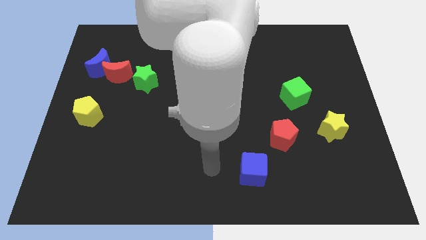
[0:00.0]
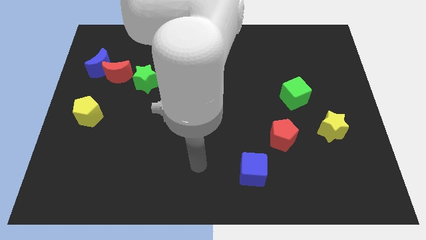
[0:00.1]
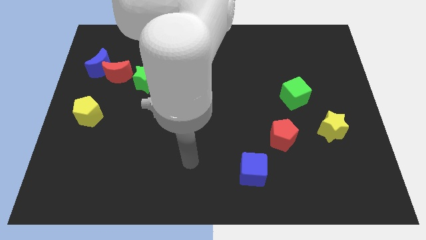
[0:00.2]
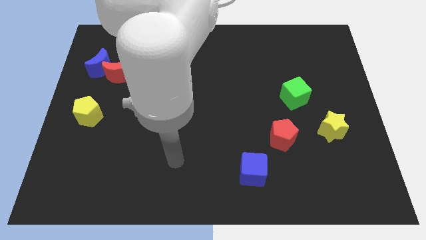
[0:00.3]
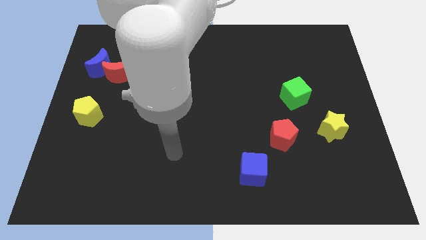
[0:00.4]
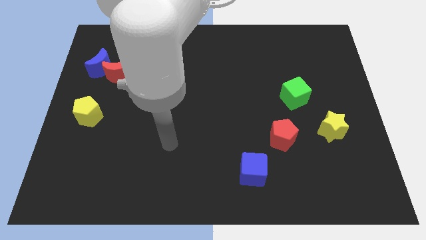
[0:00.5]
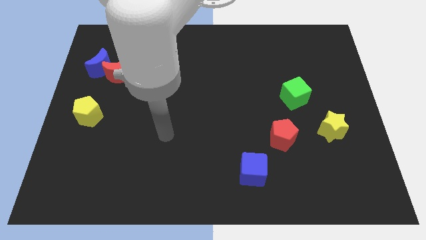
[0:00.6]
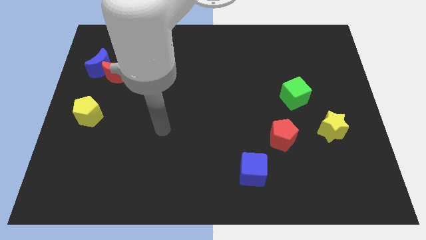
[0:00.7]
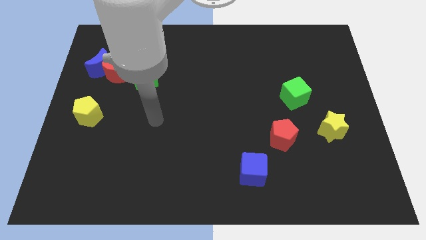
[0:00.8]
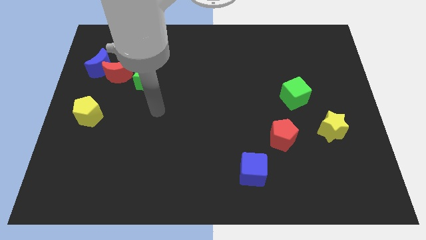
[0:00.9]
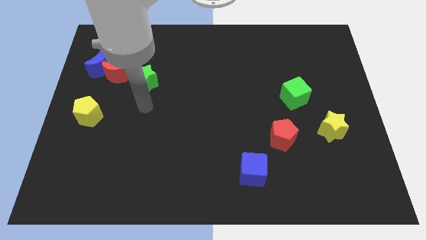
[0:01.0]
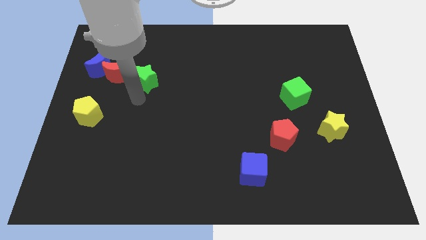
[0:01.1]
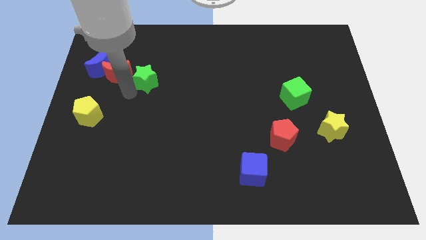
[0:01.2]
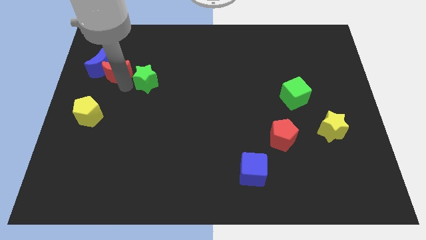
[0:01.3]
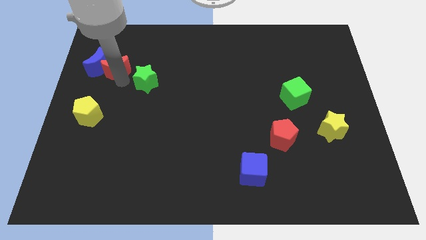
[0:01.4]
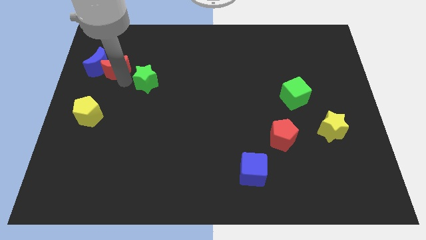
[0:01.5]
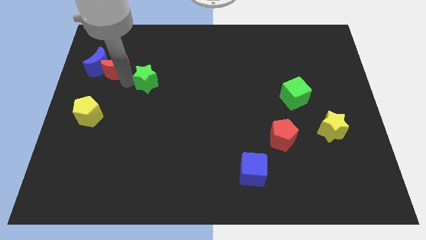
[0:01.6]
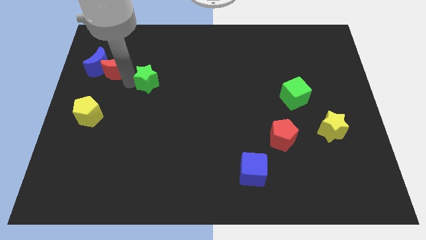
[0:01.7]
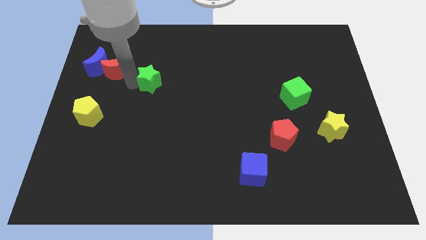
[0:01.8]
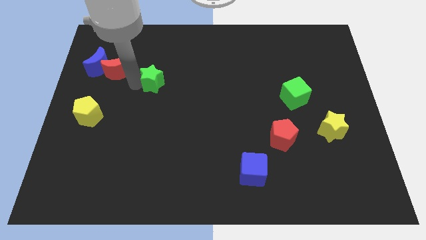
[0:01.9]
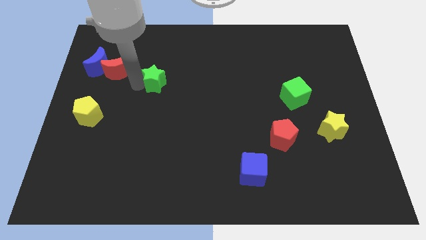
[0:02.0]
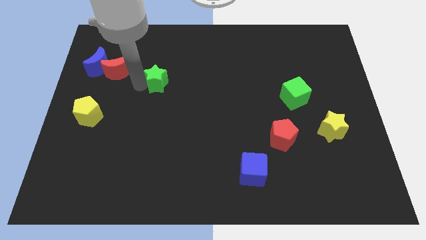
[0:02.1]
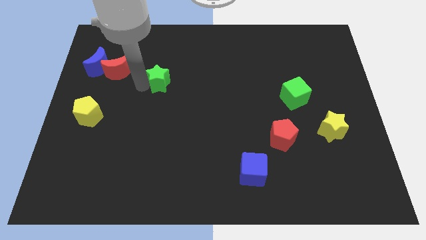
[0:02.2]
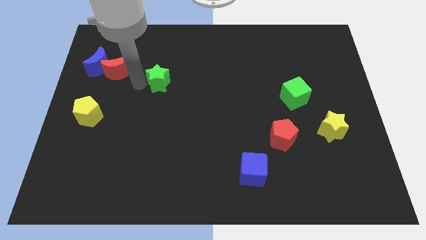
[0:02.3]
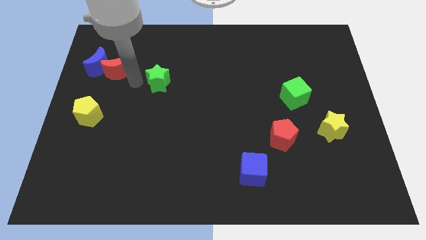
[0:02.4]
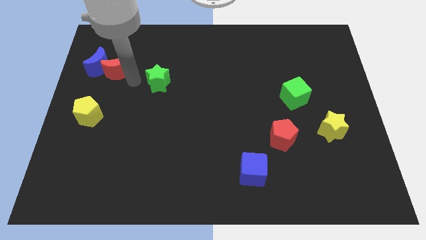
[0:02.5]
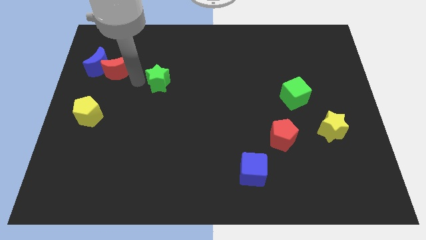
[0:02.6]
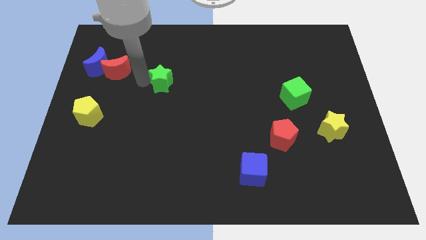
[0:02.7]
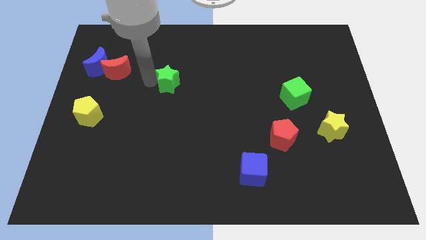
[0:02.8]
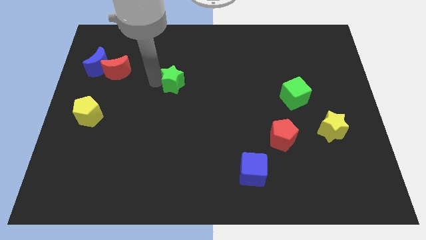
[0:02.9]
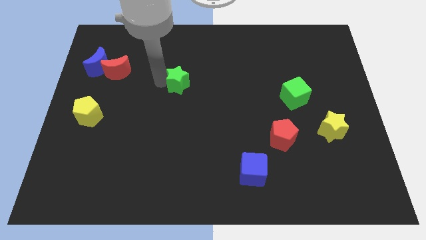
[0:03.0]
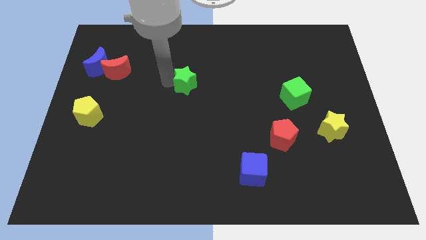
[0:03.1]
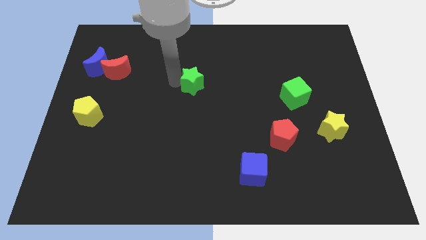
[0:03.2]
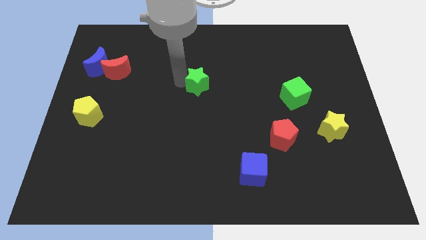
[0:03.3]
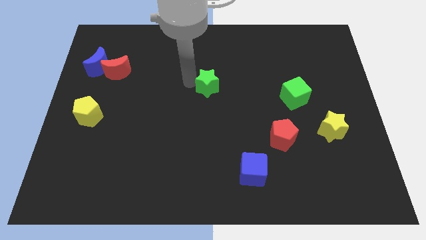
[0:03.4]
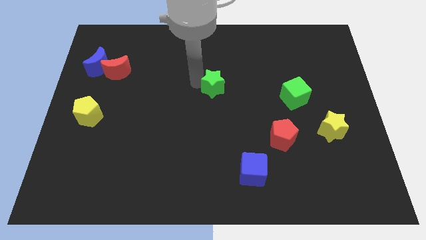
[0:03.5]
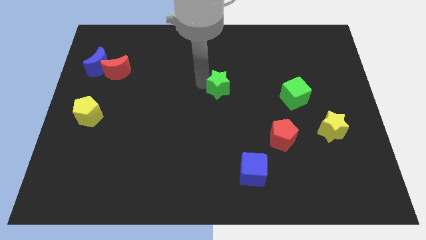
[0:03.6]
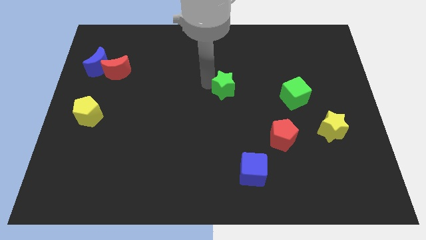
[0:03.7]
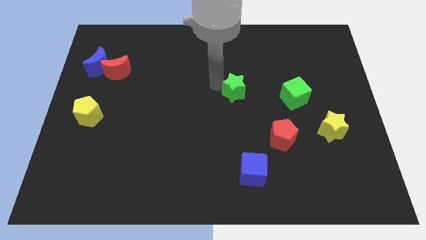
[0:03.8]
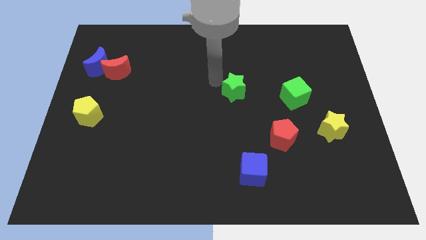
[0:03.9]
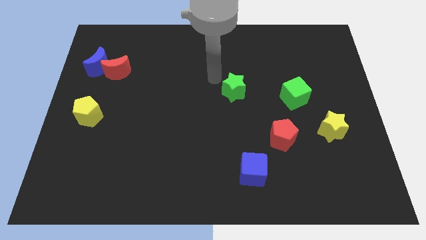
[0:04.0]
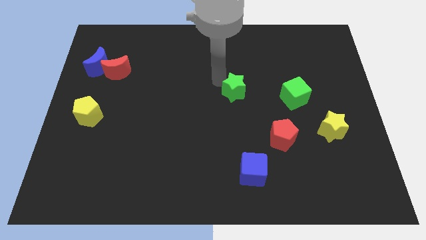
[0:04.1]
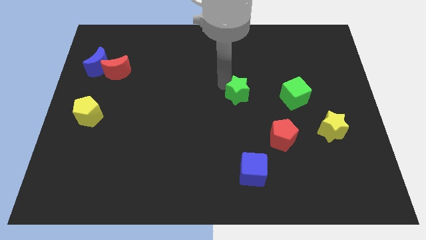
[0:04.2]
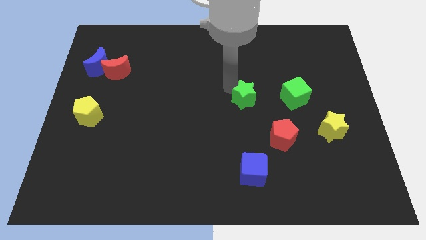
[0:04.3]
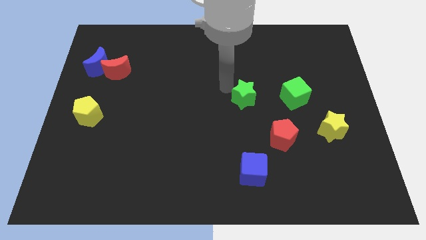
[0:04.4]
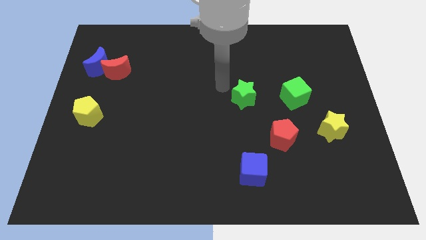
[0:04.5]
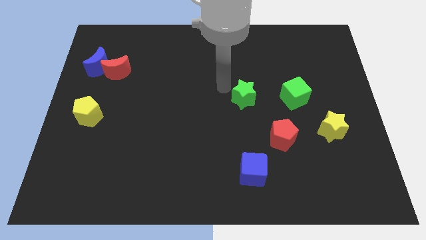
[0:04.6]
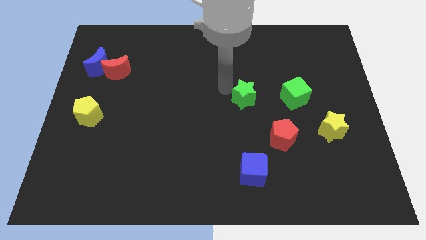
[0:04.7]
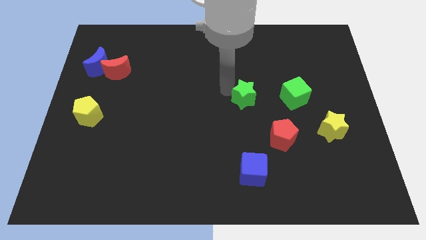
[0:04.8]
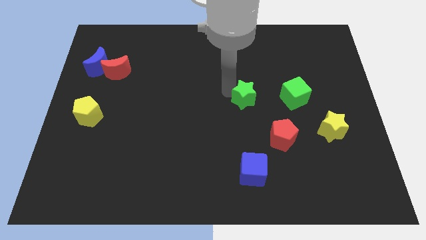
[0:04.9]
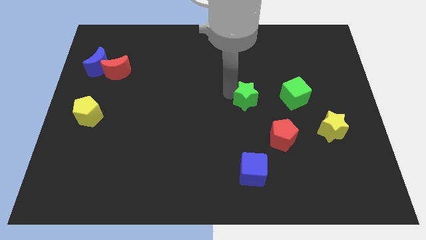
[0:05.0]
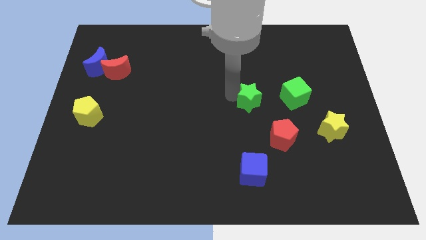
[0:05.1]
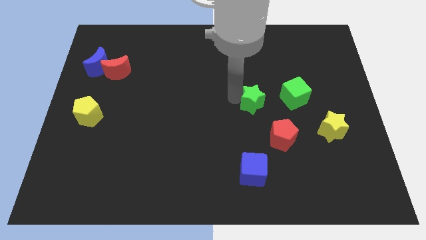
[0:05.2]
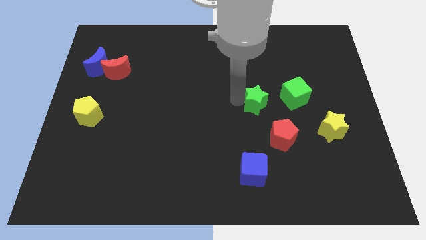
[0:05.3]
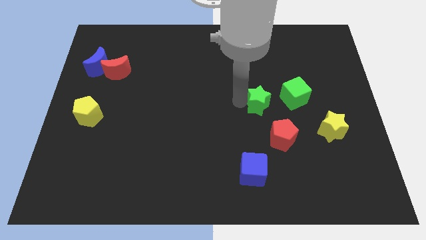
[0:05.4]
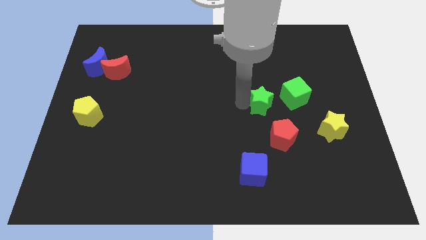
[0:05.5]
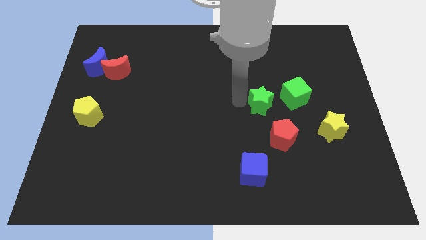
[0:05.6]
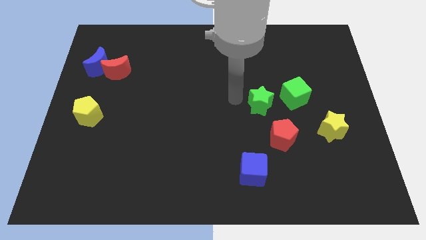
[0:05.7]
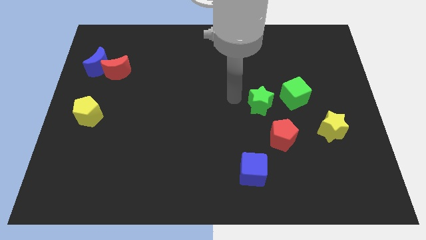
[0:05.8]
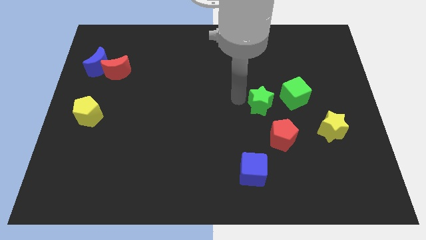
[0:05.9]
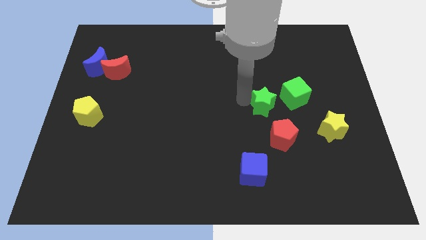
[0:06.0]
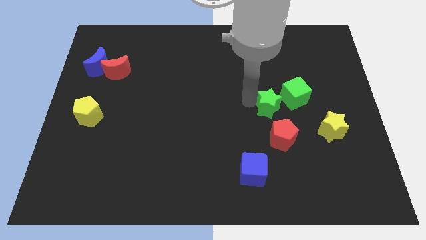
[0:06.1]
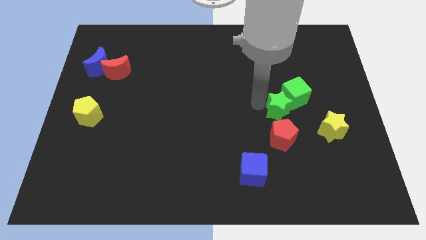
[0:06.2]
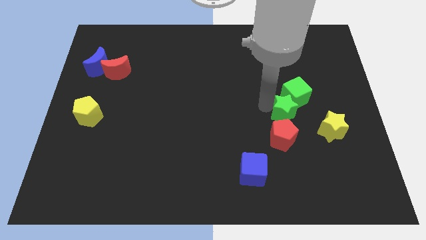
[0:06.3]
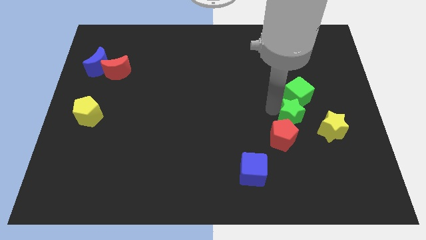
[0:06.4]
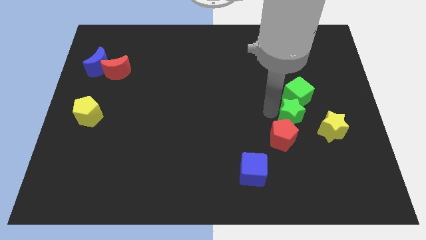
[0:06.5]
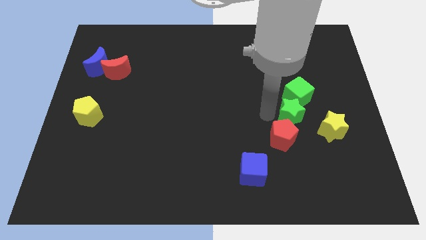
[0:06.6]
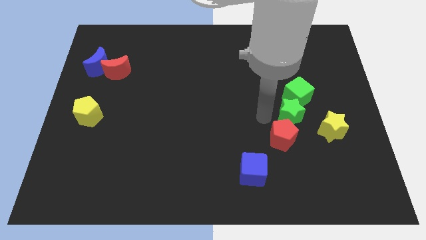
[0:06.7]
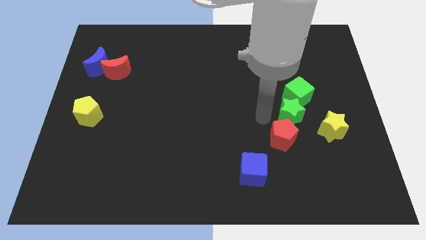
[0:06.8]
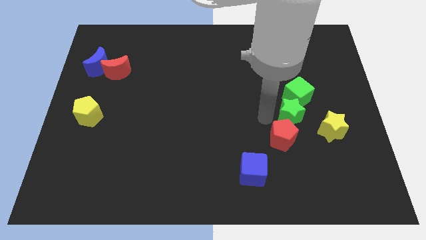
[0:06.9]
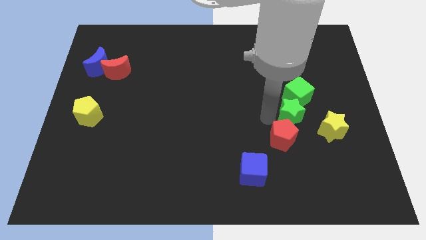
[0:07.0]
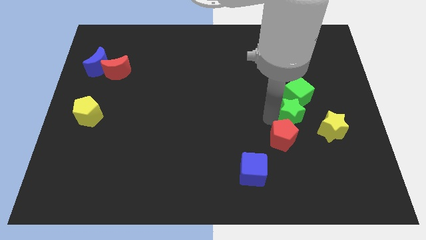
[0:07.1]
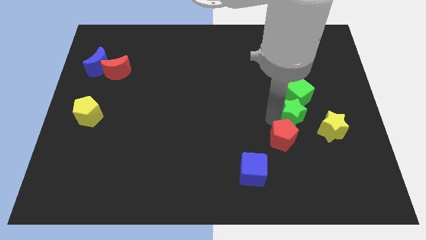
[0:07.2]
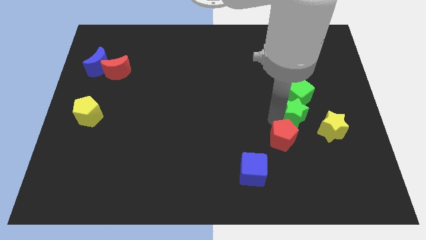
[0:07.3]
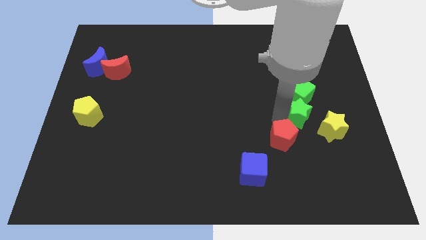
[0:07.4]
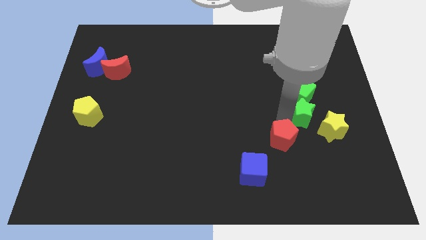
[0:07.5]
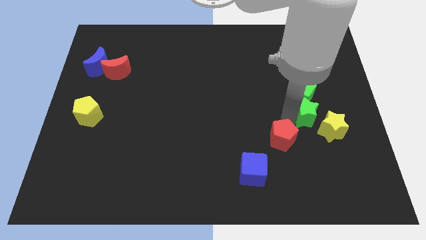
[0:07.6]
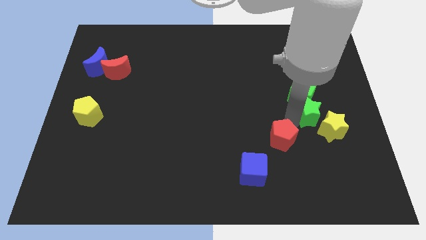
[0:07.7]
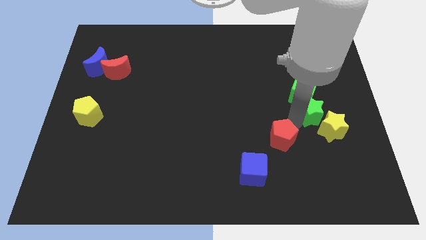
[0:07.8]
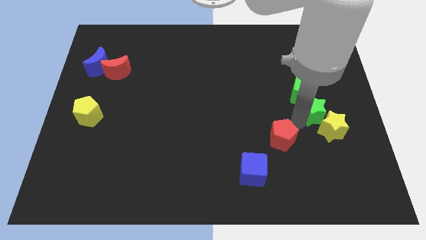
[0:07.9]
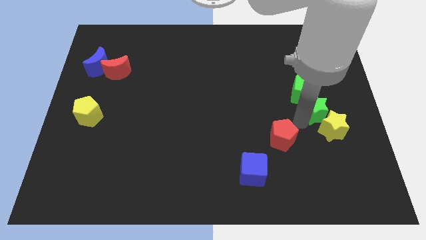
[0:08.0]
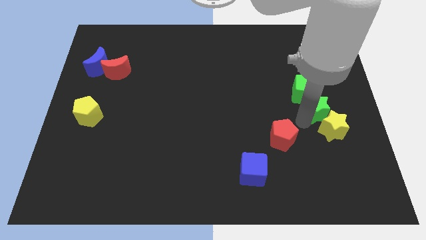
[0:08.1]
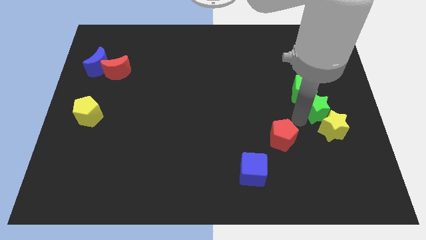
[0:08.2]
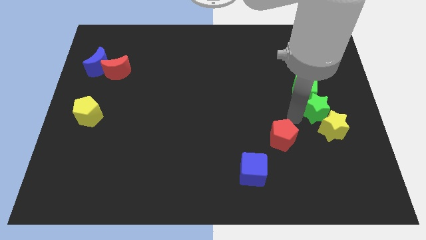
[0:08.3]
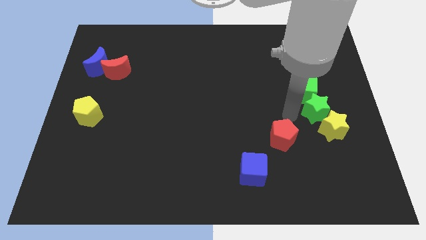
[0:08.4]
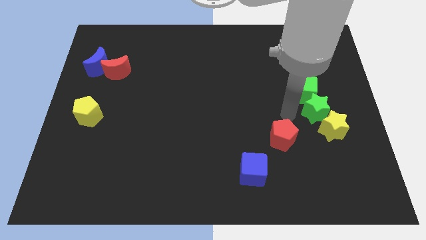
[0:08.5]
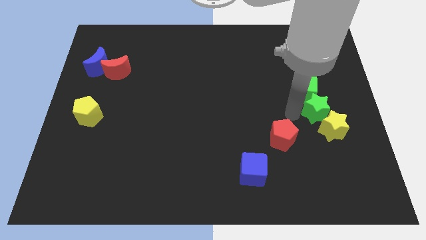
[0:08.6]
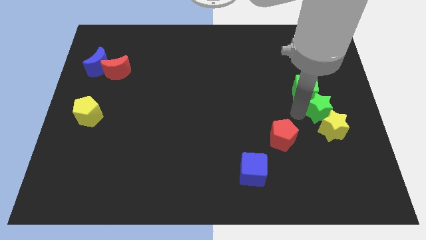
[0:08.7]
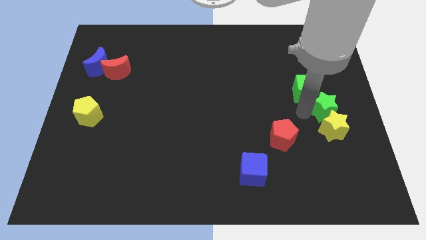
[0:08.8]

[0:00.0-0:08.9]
push the green star to the right side
